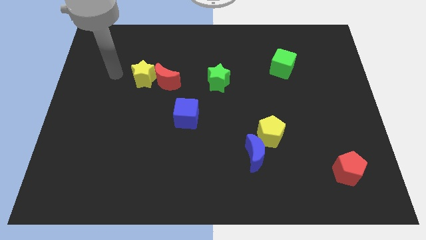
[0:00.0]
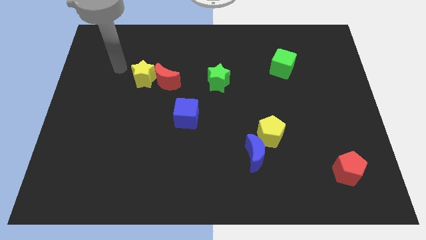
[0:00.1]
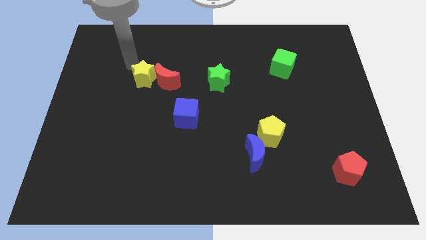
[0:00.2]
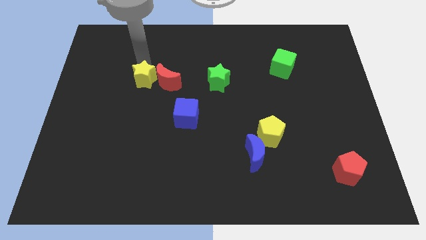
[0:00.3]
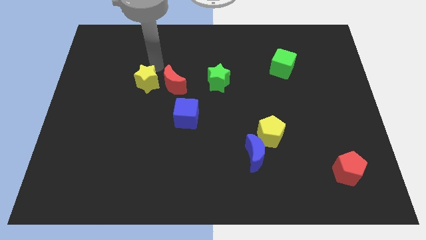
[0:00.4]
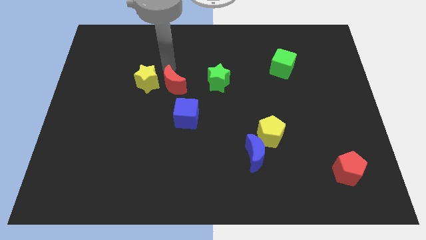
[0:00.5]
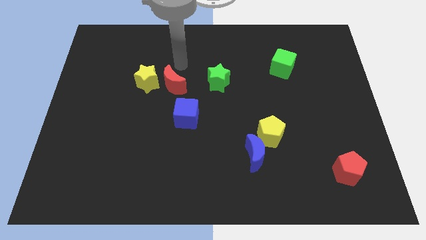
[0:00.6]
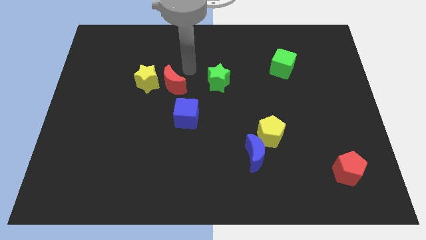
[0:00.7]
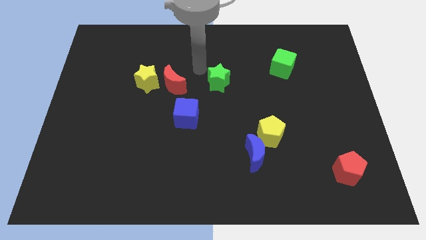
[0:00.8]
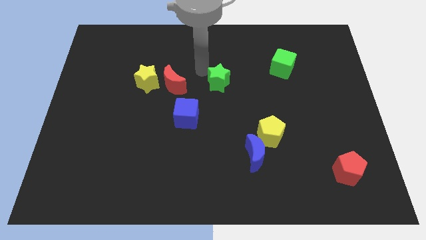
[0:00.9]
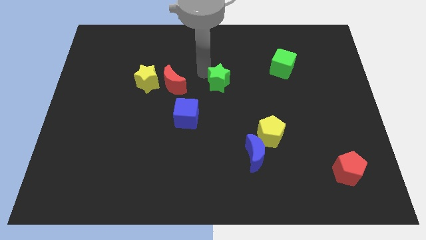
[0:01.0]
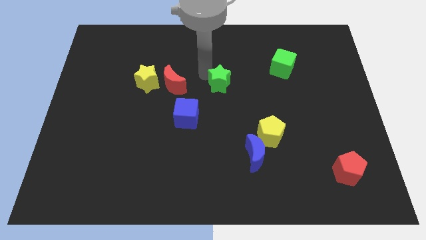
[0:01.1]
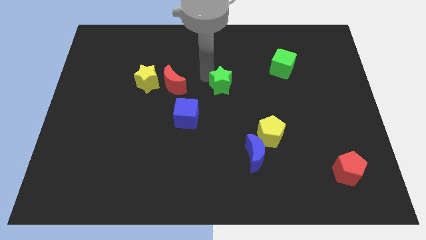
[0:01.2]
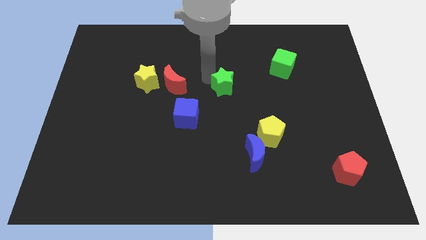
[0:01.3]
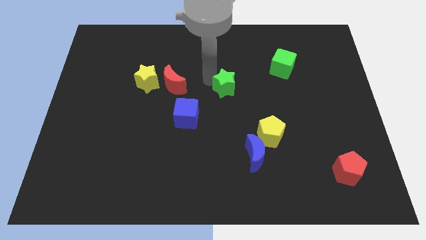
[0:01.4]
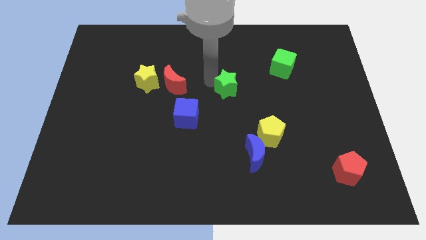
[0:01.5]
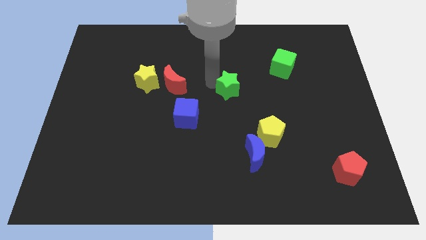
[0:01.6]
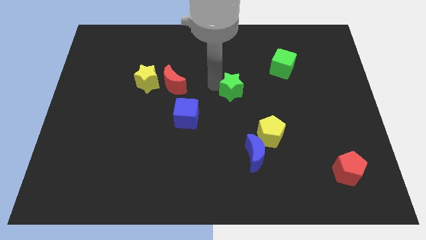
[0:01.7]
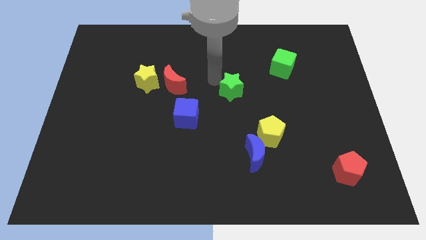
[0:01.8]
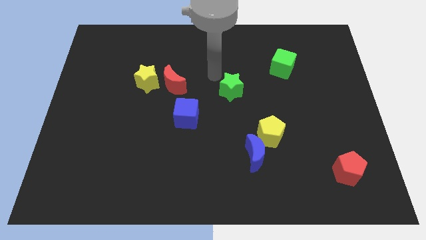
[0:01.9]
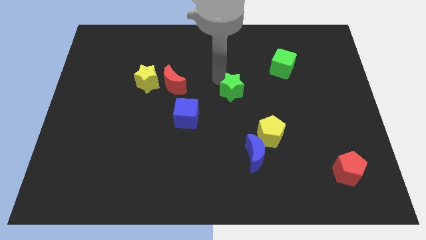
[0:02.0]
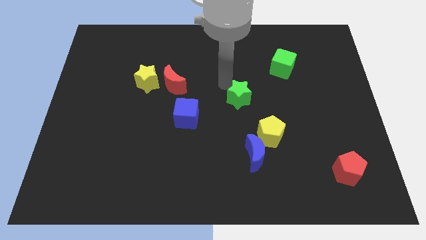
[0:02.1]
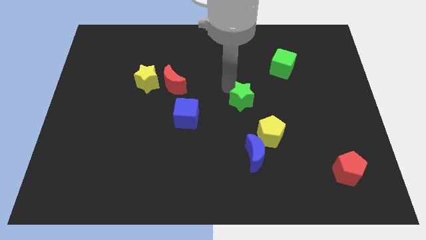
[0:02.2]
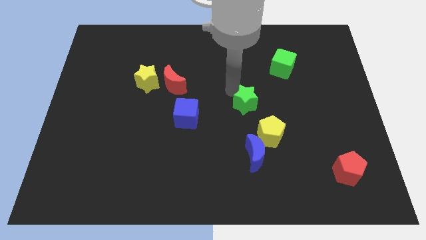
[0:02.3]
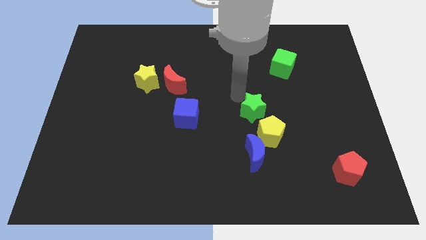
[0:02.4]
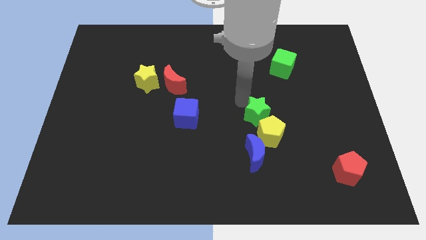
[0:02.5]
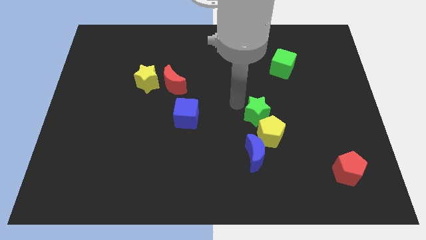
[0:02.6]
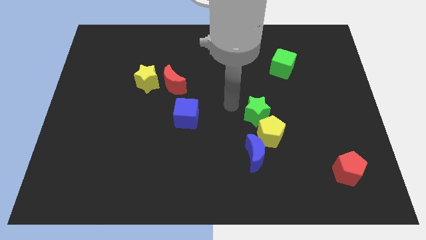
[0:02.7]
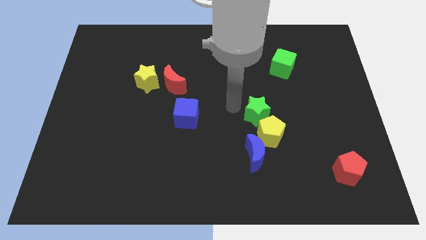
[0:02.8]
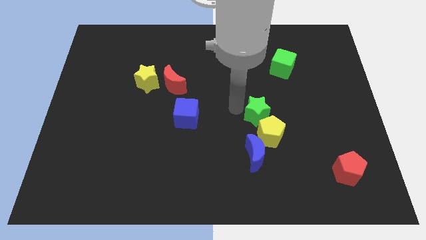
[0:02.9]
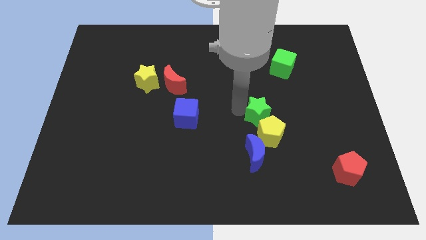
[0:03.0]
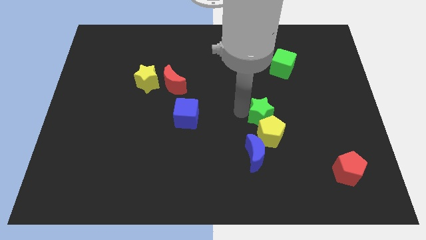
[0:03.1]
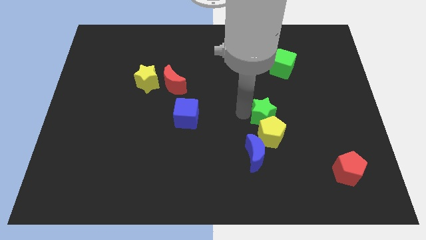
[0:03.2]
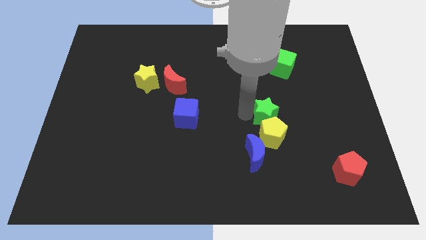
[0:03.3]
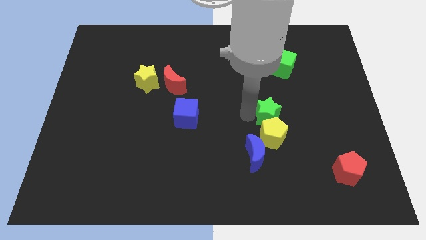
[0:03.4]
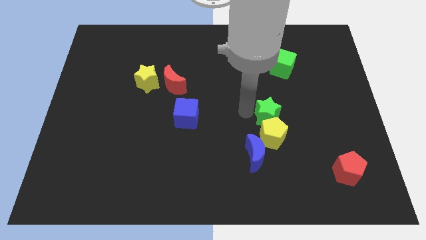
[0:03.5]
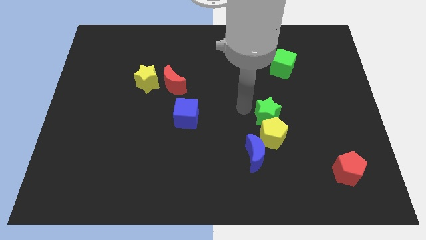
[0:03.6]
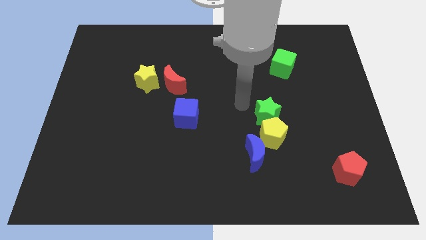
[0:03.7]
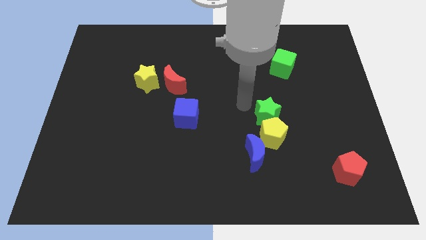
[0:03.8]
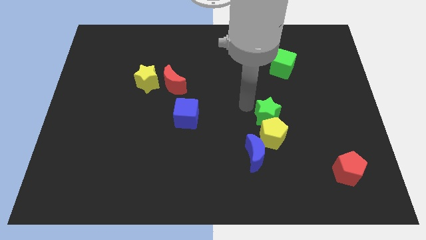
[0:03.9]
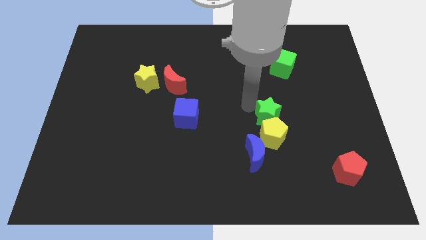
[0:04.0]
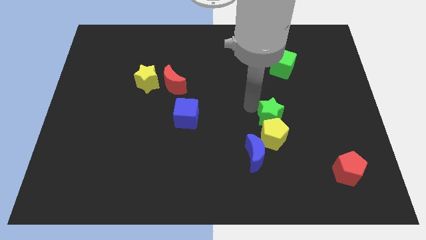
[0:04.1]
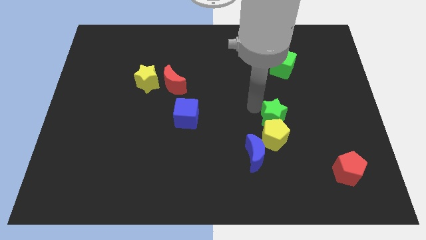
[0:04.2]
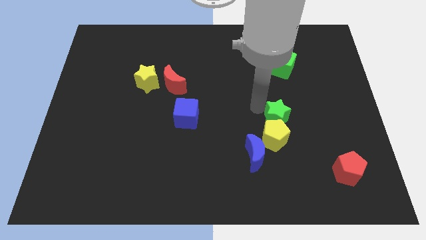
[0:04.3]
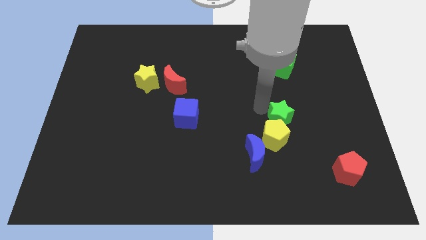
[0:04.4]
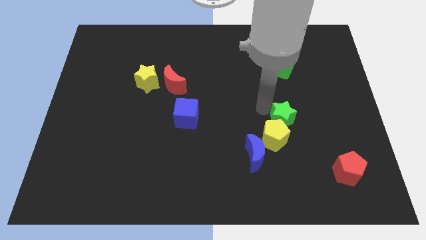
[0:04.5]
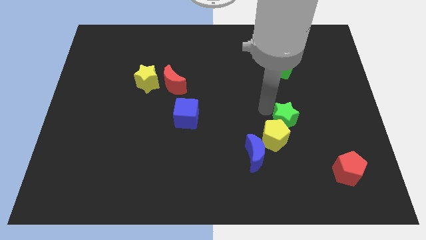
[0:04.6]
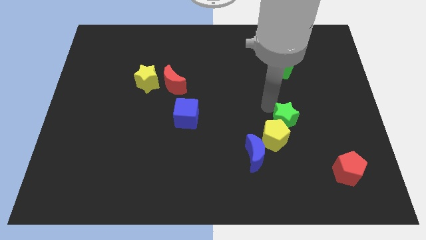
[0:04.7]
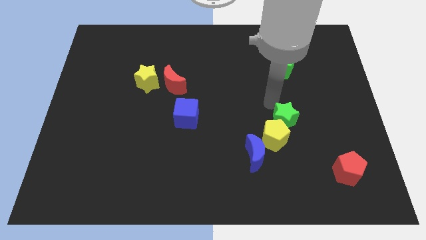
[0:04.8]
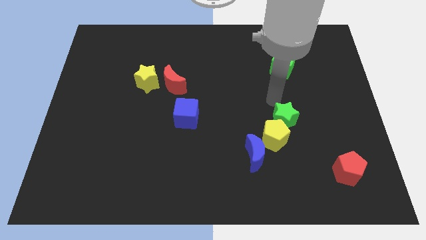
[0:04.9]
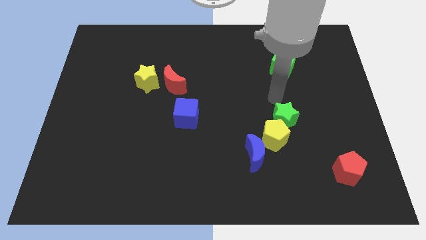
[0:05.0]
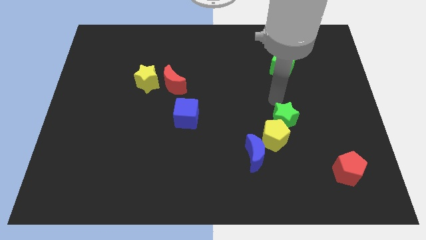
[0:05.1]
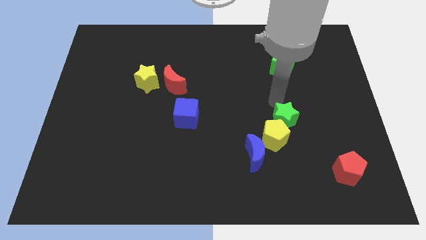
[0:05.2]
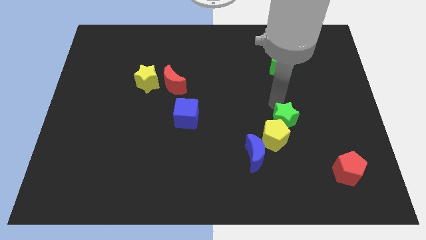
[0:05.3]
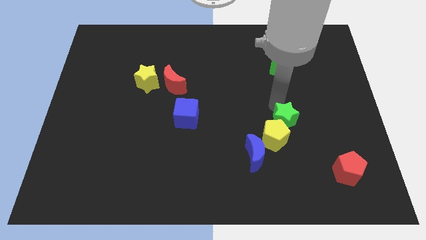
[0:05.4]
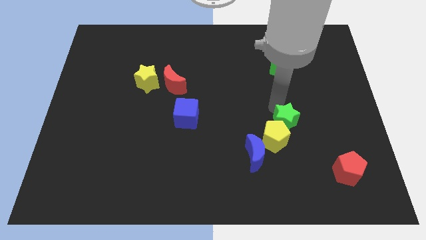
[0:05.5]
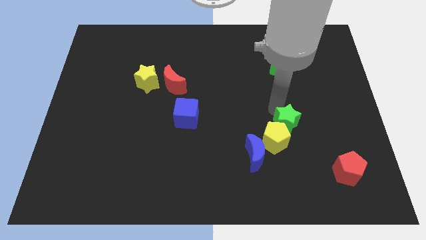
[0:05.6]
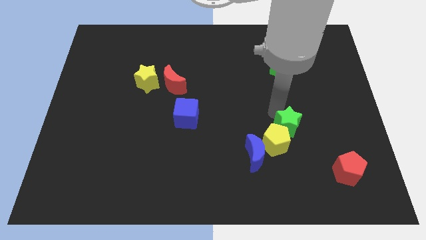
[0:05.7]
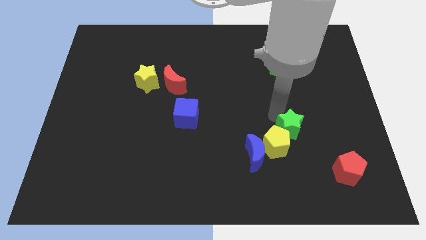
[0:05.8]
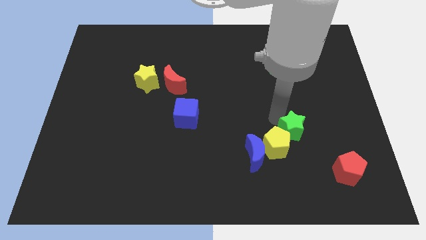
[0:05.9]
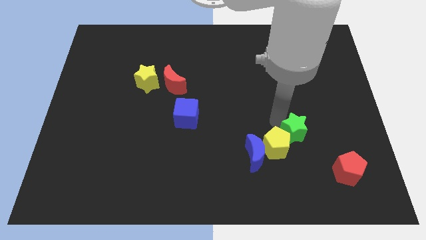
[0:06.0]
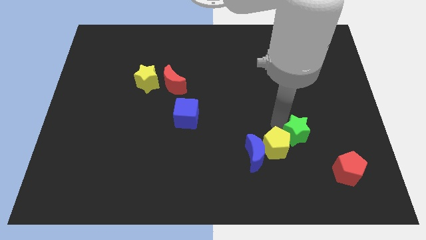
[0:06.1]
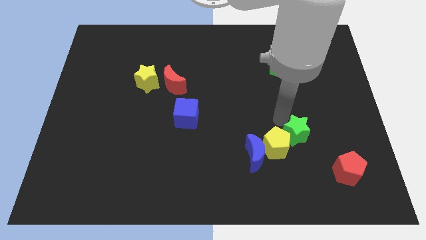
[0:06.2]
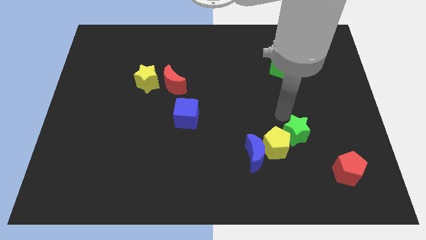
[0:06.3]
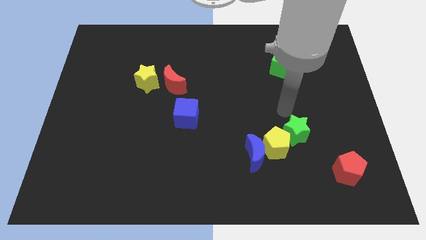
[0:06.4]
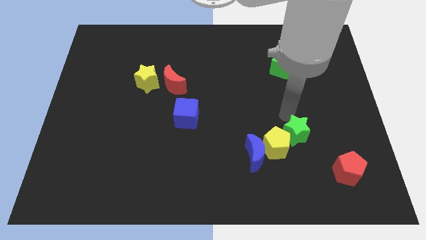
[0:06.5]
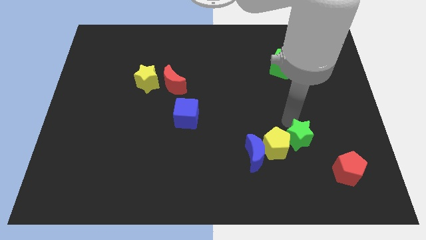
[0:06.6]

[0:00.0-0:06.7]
put the green star to the right side of the blue moon
